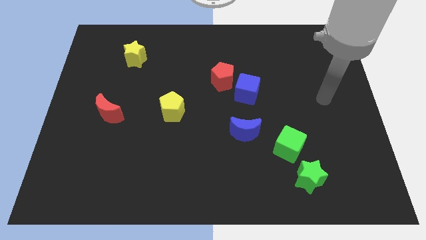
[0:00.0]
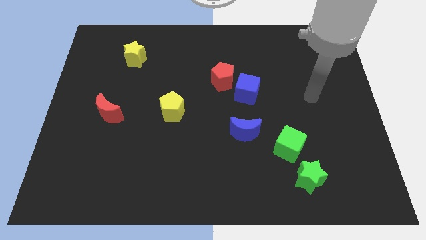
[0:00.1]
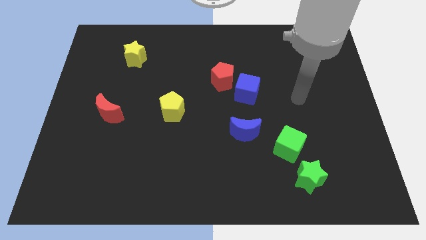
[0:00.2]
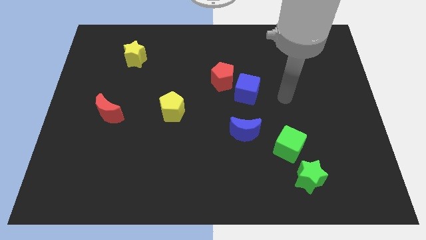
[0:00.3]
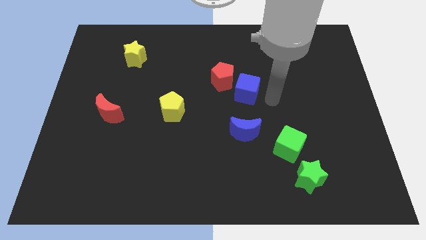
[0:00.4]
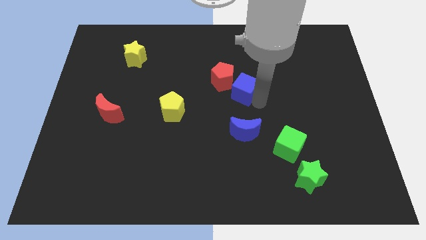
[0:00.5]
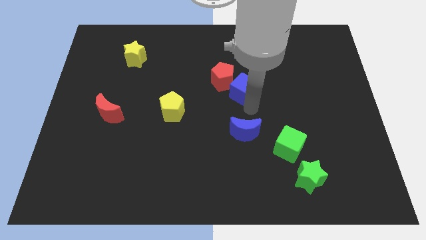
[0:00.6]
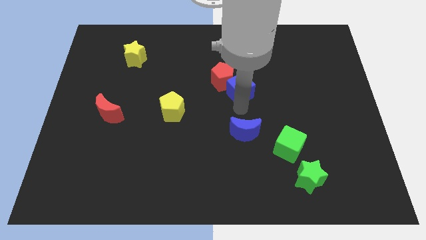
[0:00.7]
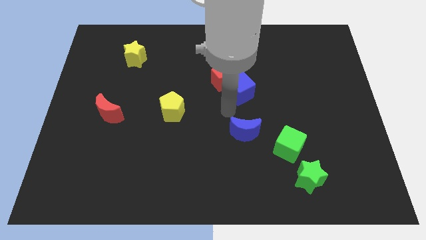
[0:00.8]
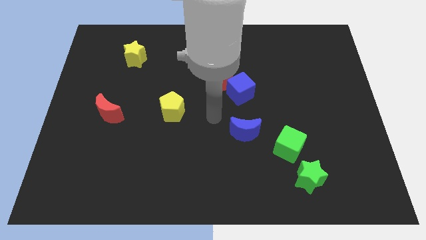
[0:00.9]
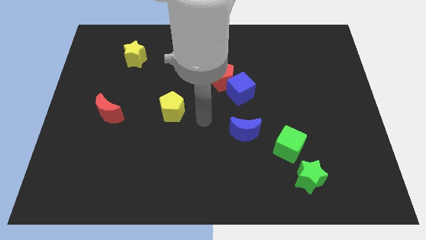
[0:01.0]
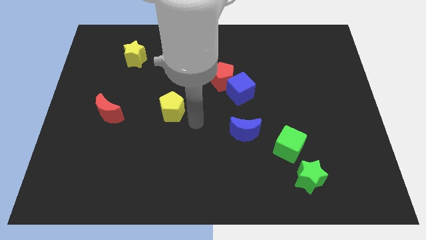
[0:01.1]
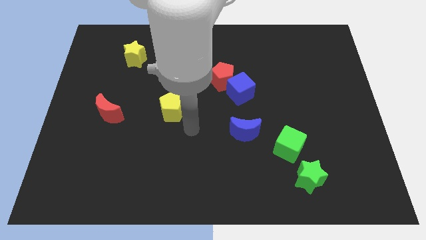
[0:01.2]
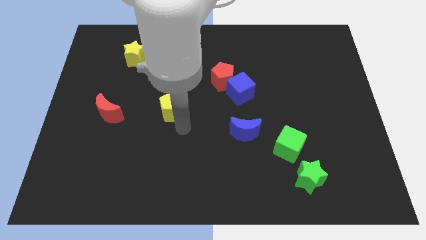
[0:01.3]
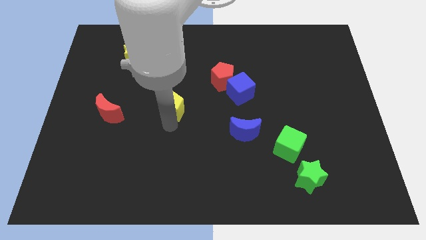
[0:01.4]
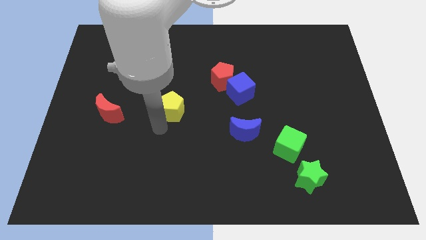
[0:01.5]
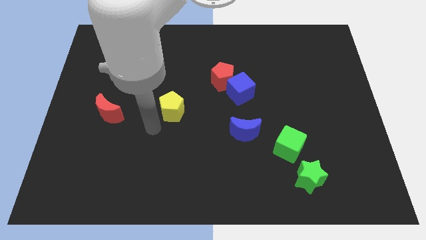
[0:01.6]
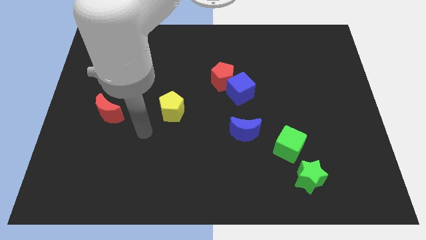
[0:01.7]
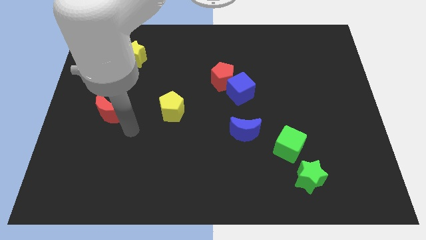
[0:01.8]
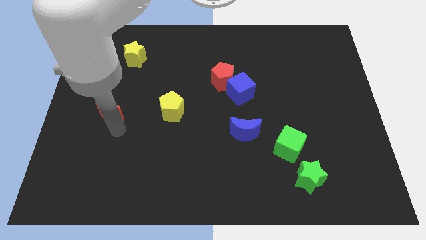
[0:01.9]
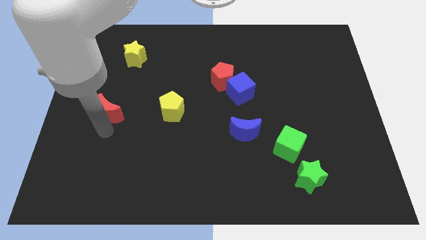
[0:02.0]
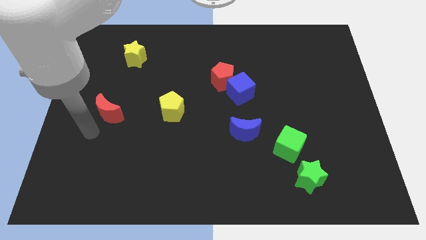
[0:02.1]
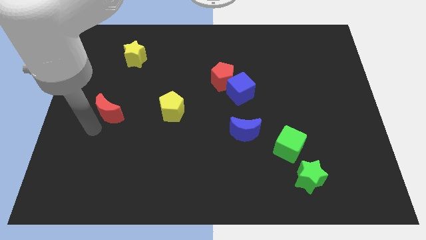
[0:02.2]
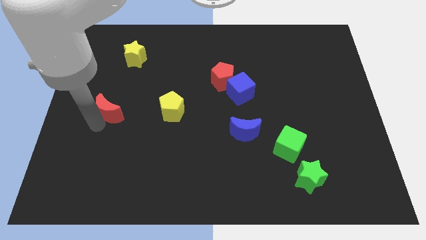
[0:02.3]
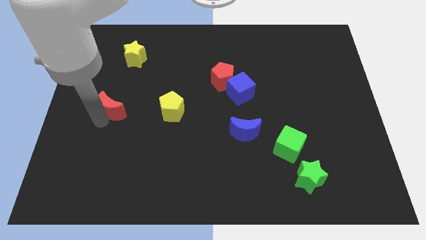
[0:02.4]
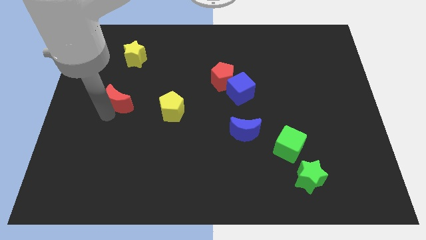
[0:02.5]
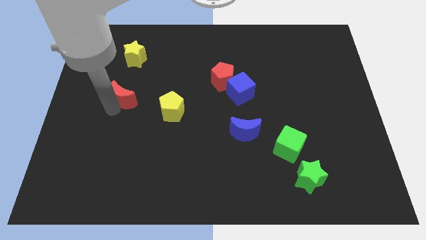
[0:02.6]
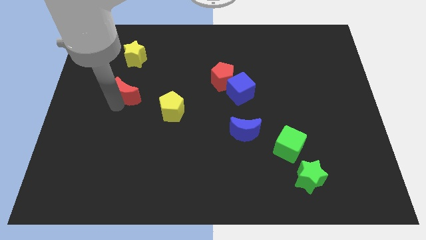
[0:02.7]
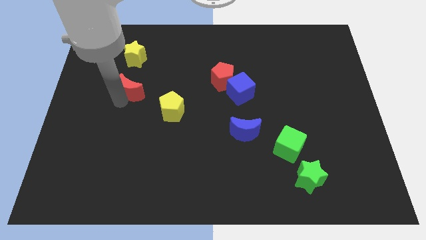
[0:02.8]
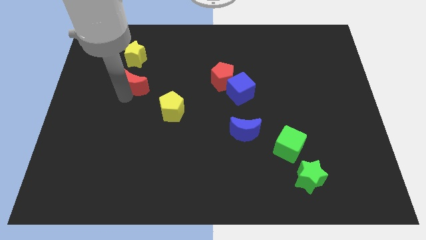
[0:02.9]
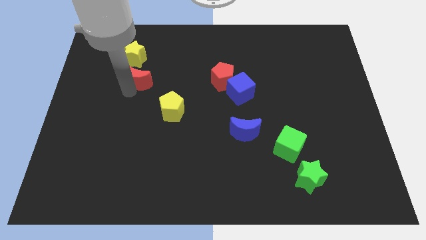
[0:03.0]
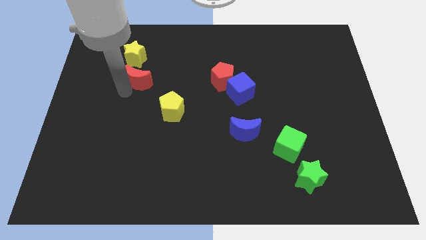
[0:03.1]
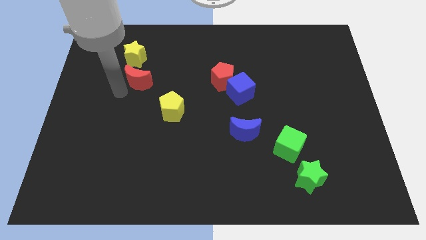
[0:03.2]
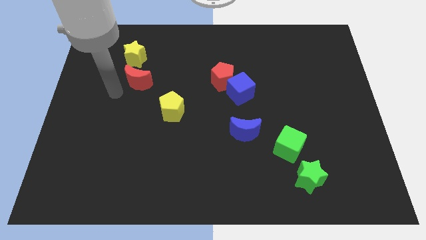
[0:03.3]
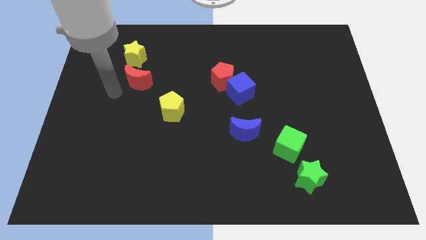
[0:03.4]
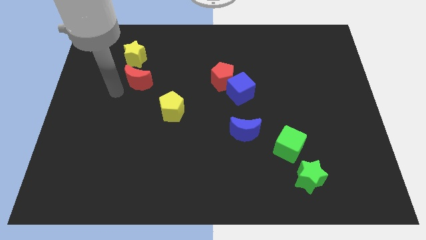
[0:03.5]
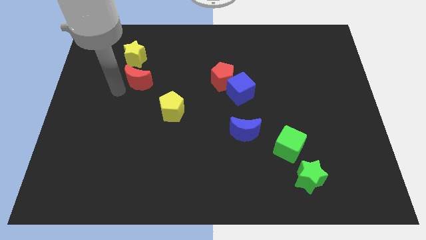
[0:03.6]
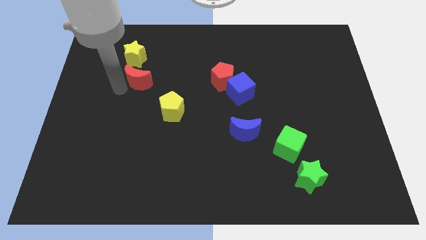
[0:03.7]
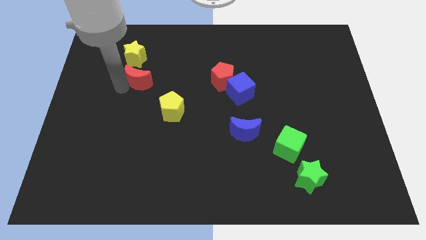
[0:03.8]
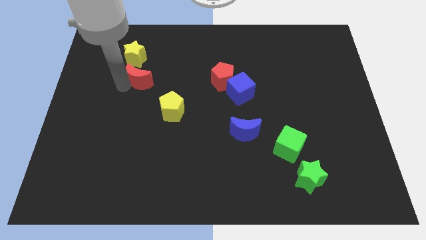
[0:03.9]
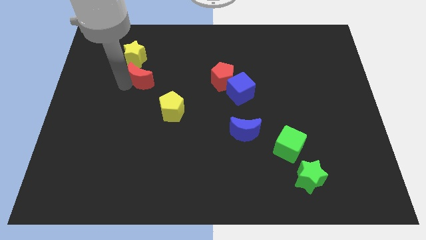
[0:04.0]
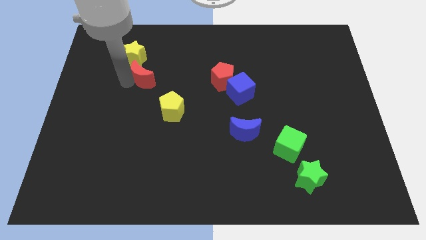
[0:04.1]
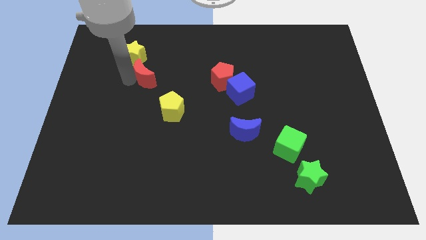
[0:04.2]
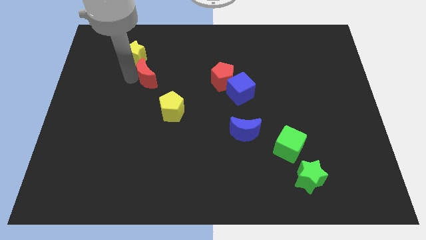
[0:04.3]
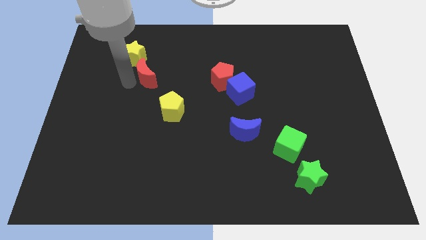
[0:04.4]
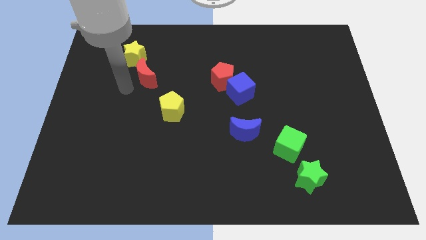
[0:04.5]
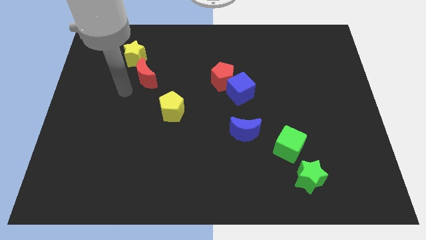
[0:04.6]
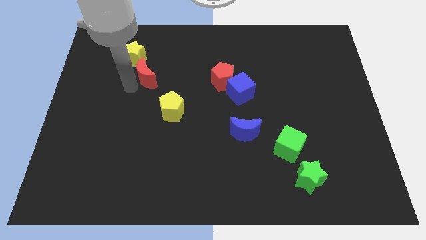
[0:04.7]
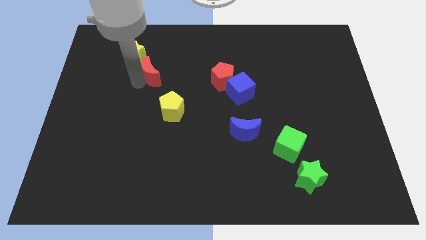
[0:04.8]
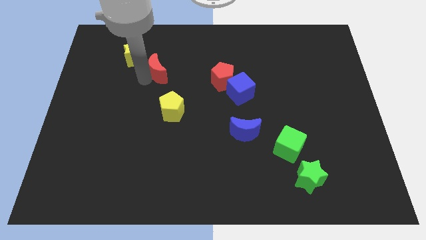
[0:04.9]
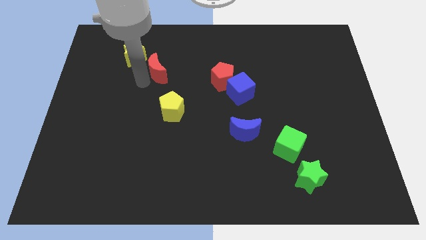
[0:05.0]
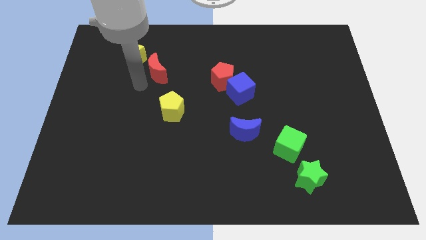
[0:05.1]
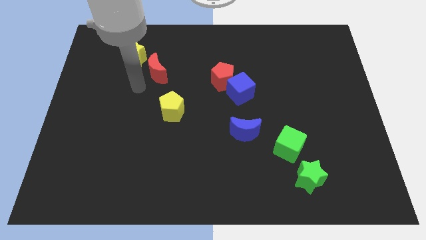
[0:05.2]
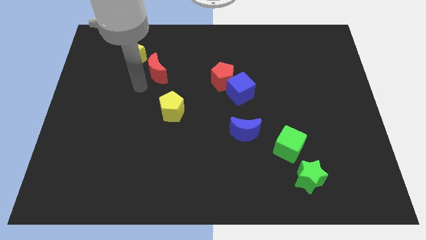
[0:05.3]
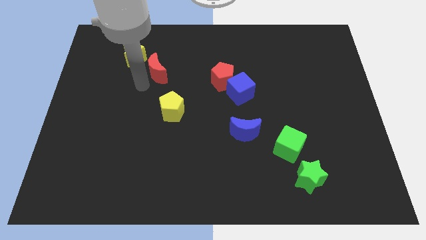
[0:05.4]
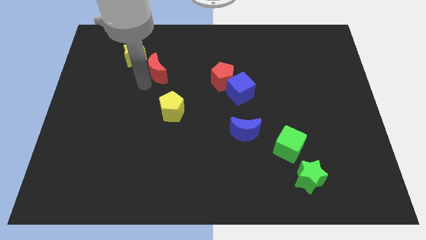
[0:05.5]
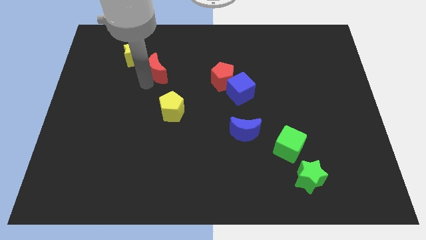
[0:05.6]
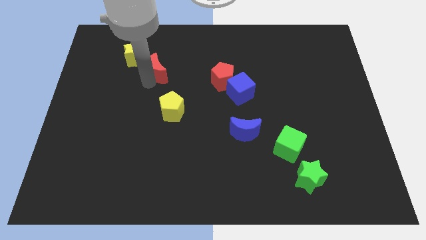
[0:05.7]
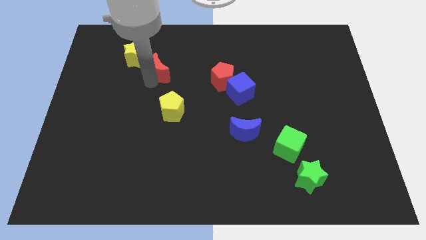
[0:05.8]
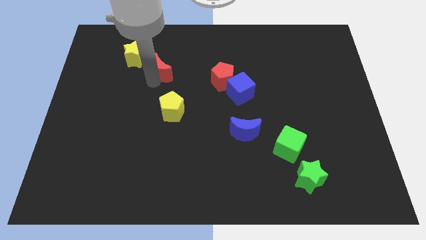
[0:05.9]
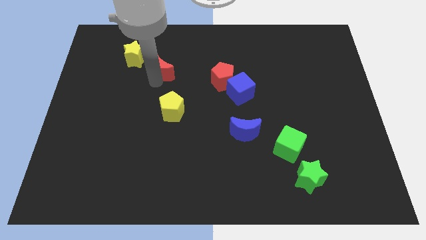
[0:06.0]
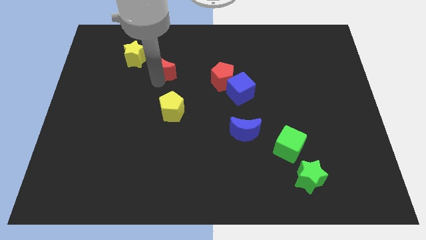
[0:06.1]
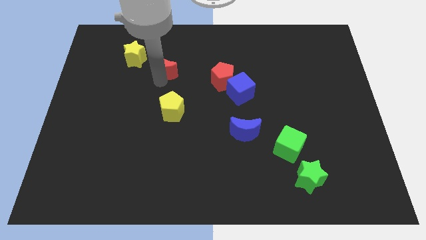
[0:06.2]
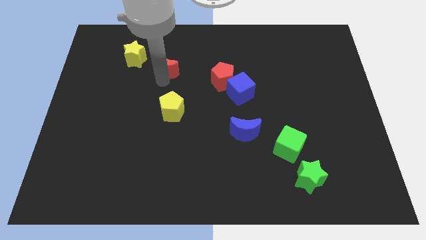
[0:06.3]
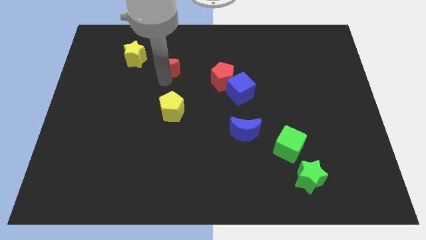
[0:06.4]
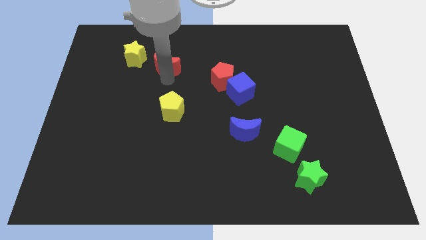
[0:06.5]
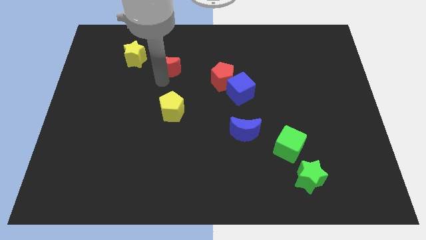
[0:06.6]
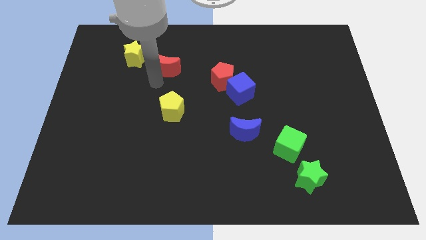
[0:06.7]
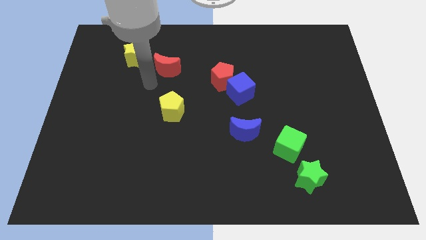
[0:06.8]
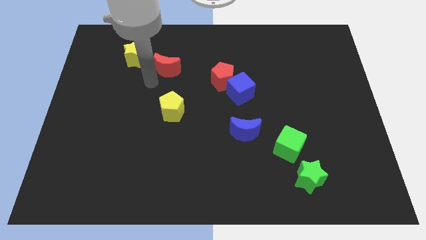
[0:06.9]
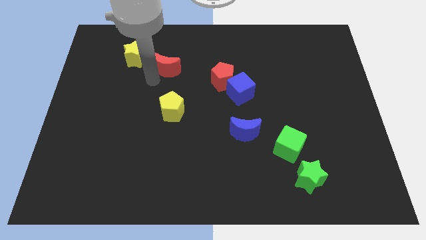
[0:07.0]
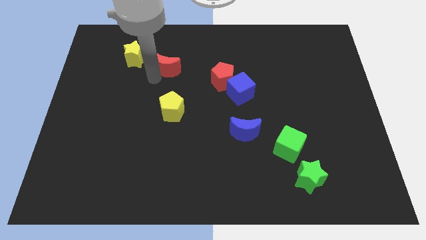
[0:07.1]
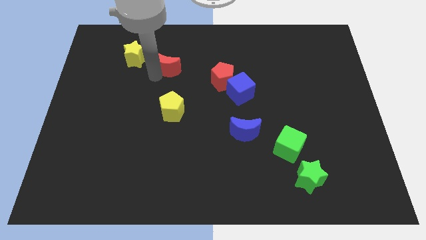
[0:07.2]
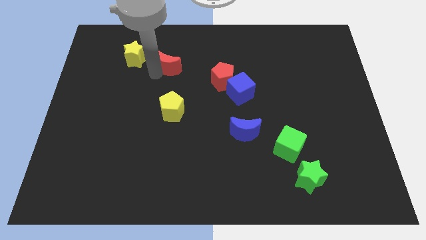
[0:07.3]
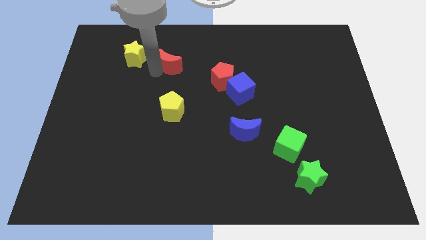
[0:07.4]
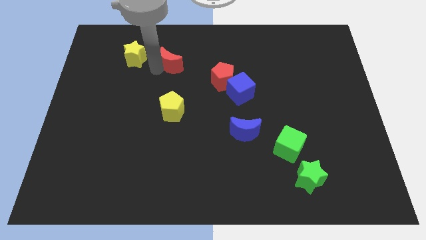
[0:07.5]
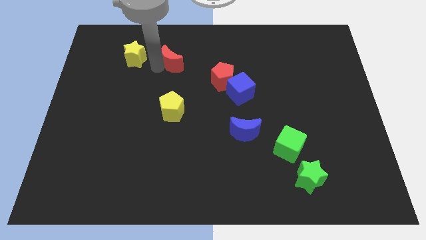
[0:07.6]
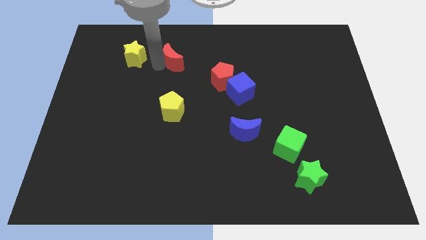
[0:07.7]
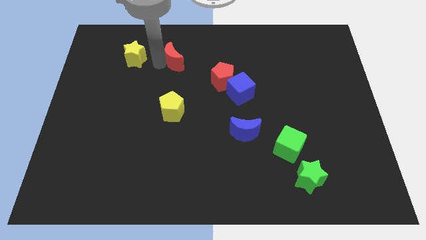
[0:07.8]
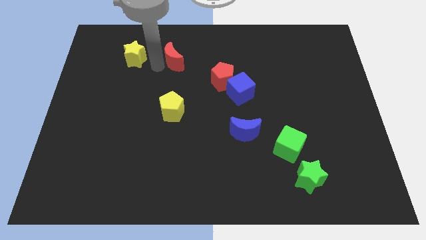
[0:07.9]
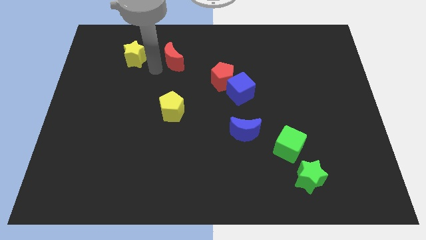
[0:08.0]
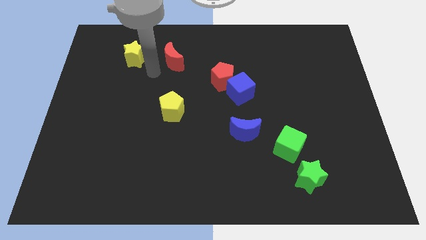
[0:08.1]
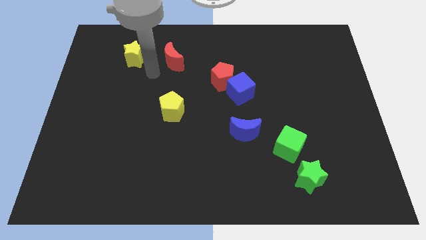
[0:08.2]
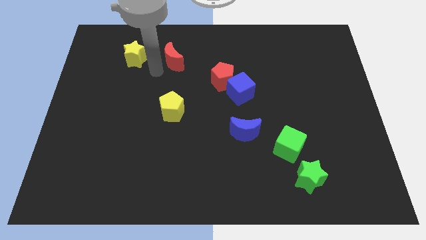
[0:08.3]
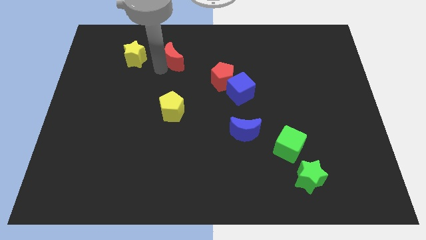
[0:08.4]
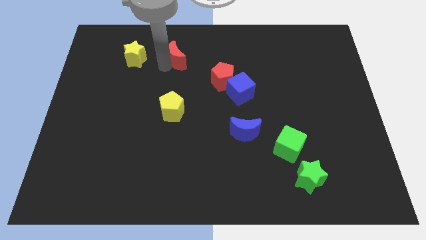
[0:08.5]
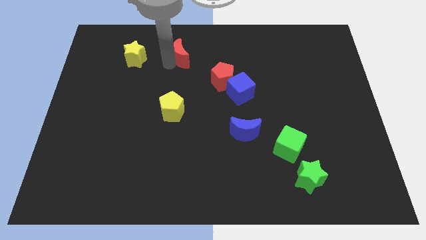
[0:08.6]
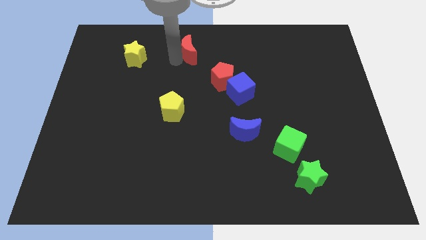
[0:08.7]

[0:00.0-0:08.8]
push the red moon to the top
